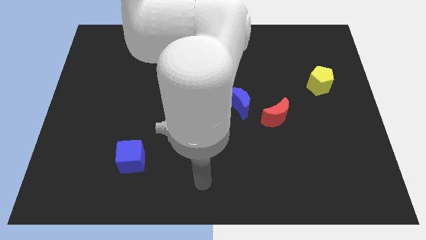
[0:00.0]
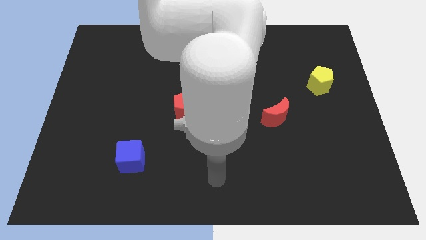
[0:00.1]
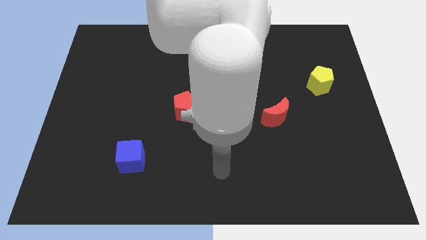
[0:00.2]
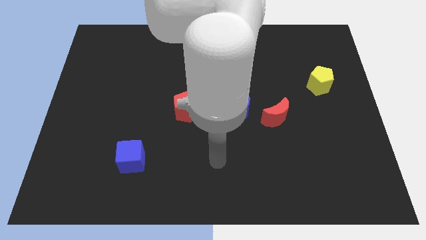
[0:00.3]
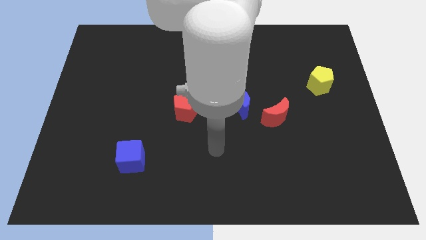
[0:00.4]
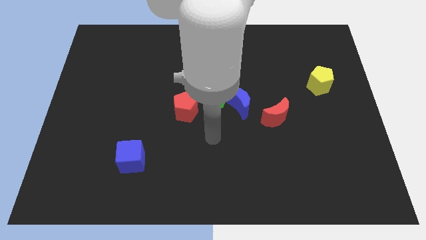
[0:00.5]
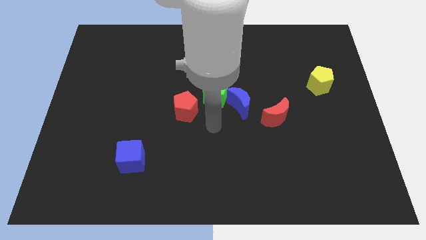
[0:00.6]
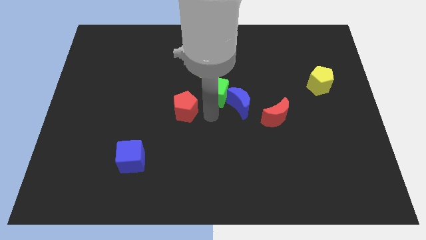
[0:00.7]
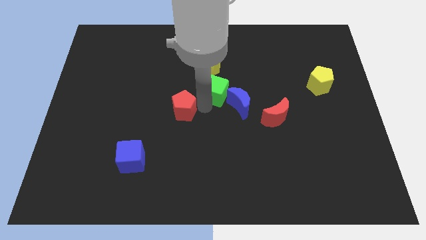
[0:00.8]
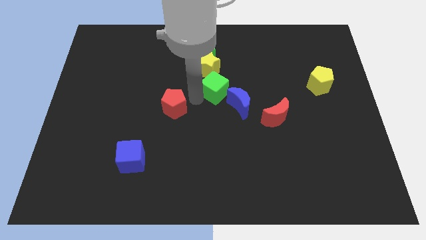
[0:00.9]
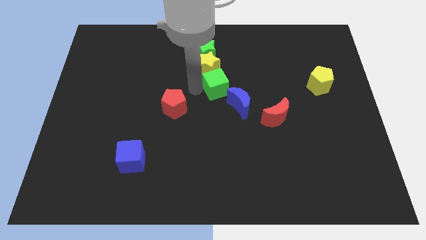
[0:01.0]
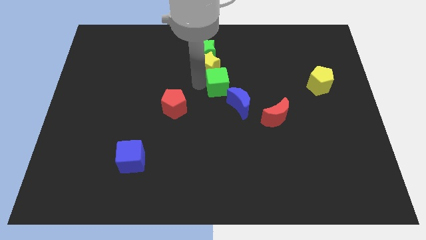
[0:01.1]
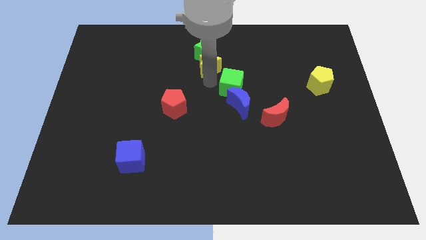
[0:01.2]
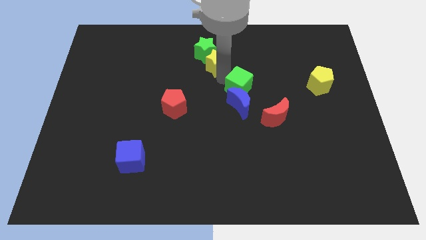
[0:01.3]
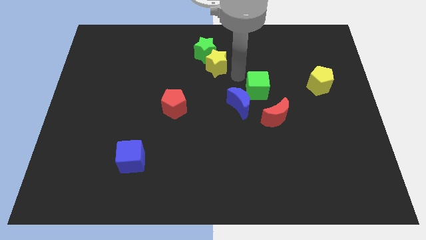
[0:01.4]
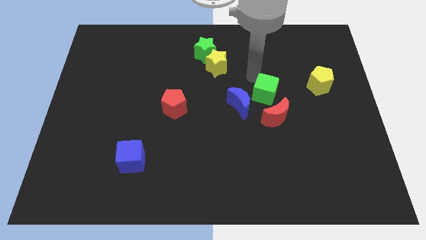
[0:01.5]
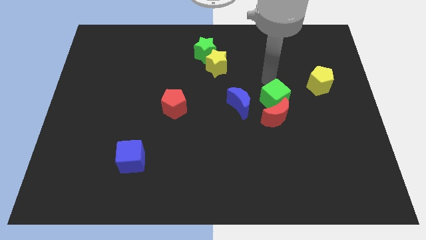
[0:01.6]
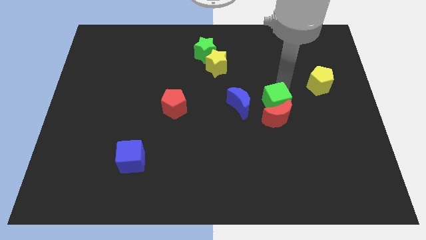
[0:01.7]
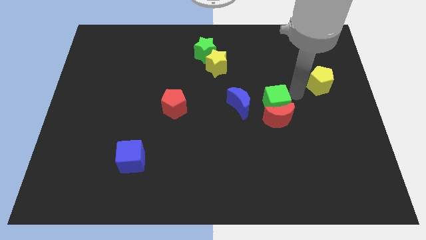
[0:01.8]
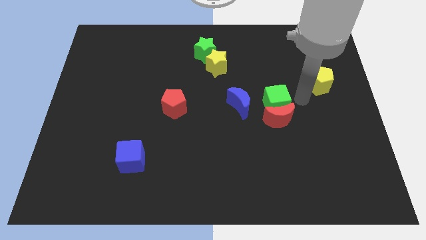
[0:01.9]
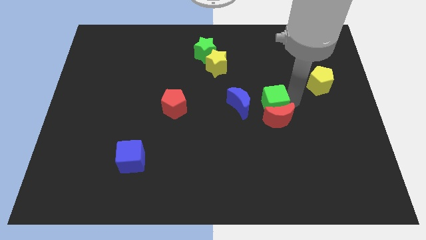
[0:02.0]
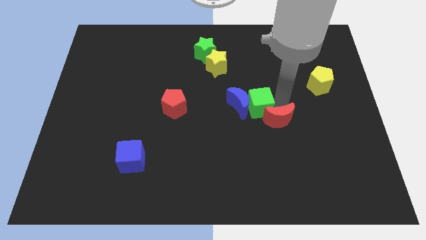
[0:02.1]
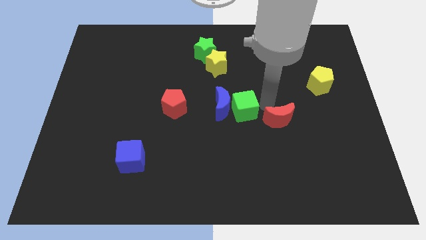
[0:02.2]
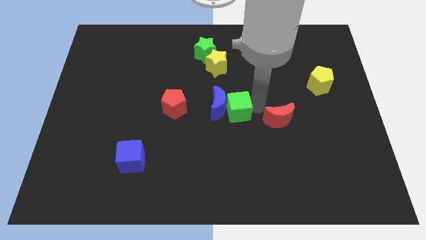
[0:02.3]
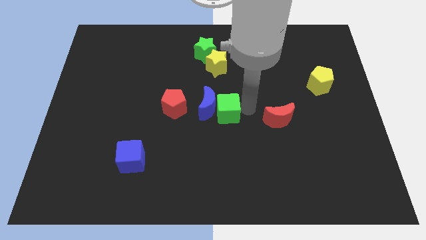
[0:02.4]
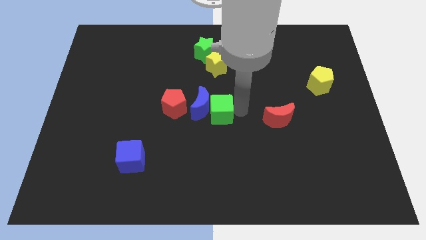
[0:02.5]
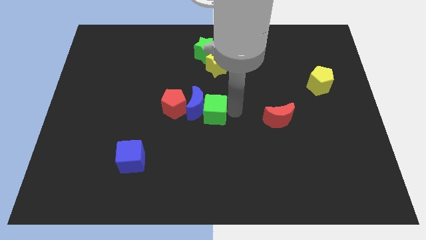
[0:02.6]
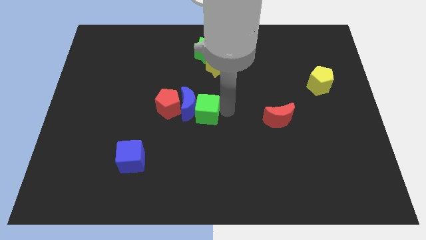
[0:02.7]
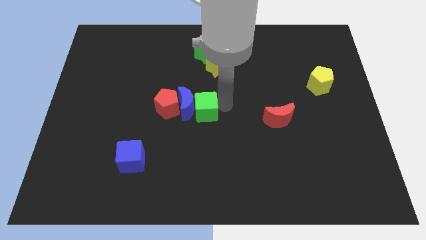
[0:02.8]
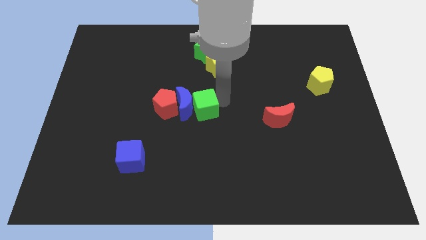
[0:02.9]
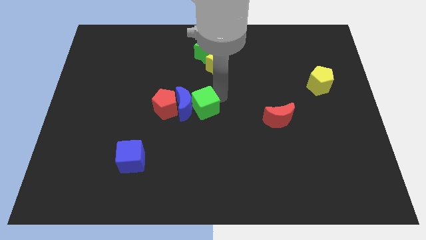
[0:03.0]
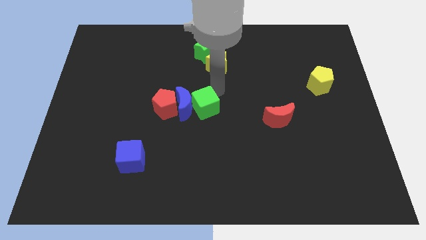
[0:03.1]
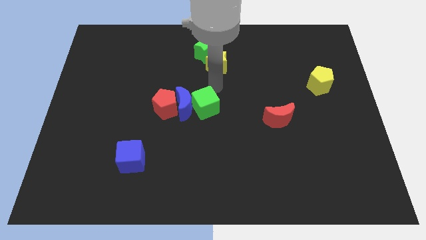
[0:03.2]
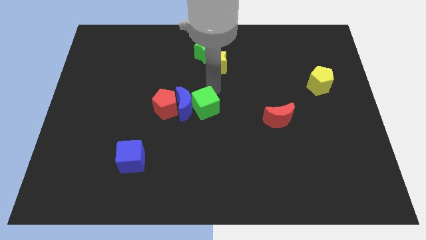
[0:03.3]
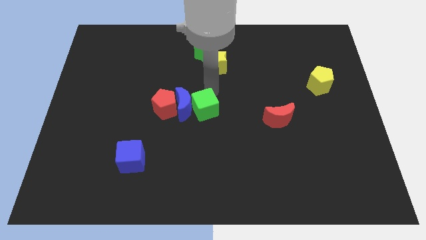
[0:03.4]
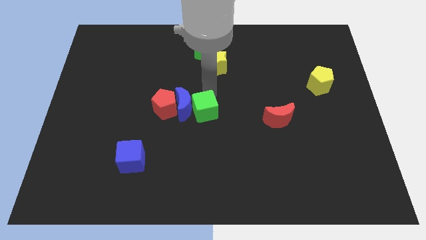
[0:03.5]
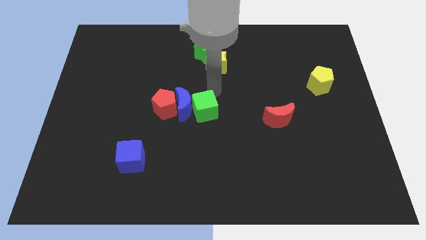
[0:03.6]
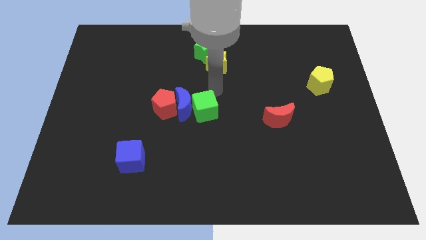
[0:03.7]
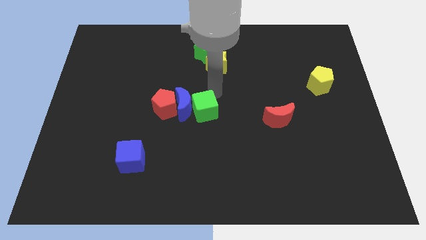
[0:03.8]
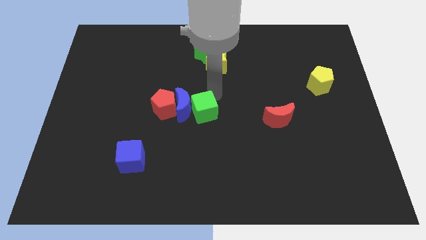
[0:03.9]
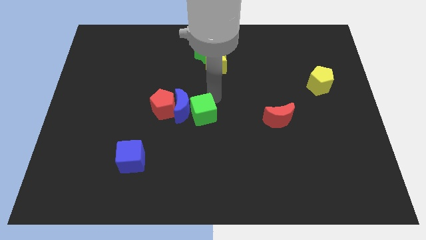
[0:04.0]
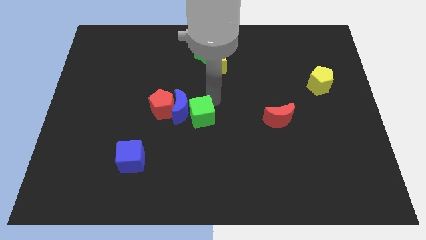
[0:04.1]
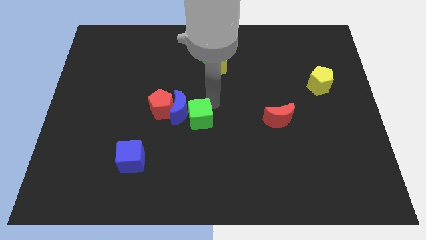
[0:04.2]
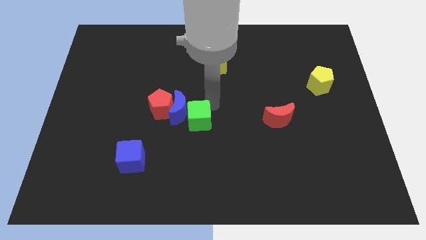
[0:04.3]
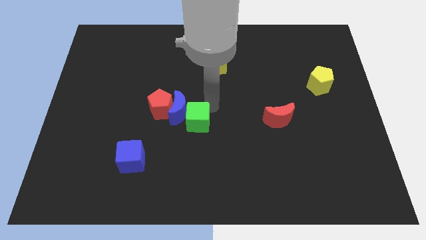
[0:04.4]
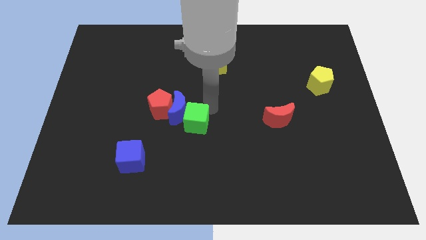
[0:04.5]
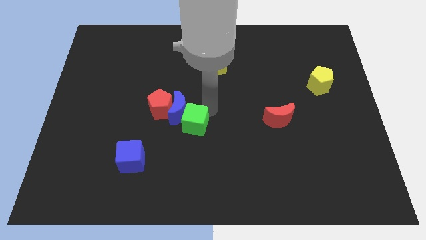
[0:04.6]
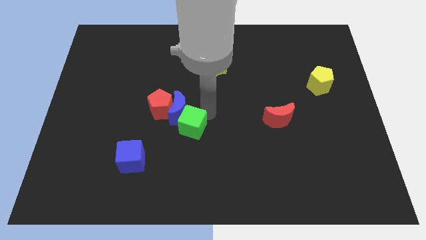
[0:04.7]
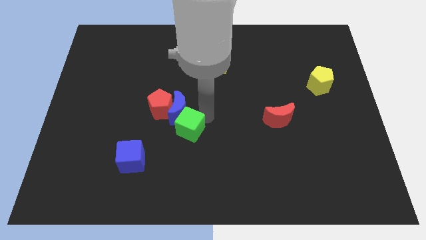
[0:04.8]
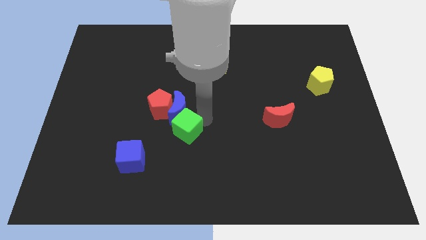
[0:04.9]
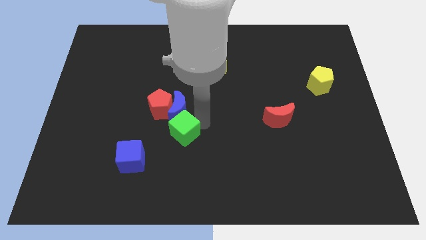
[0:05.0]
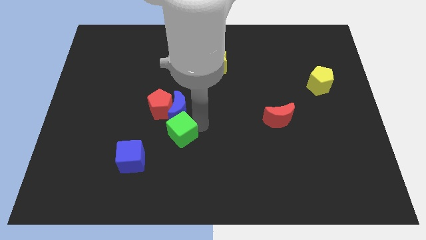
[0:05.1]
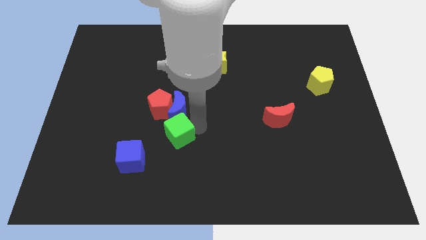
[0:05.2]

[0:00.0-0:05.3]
slide the green cube to the bottom side of the red pentagon

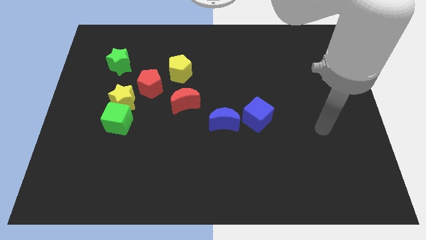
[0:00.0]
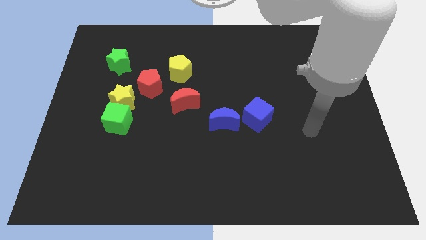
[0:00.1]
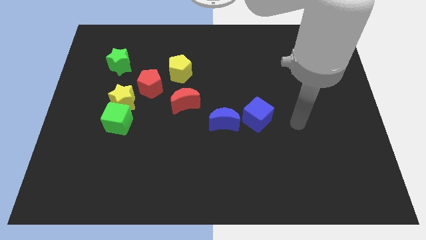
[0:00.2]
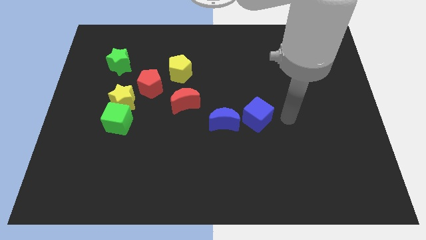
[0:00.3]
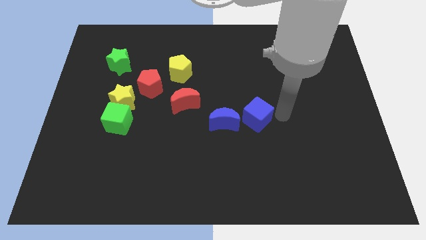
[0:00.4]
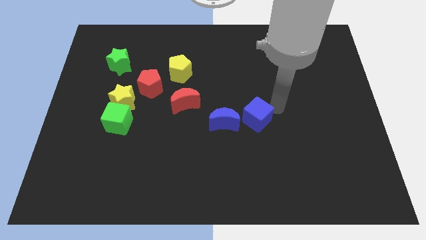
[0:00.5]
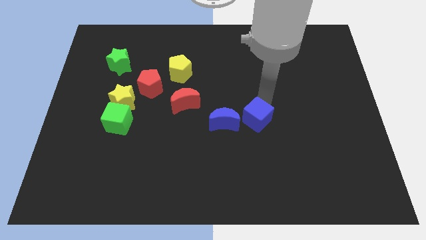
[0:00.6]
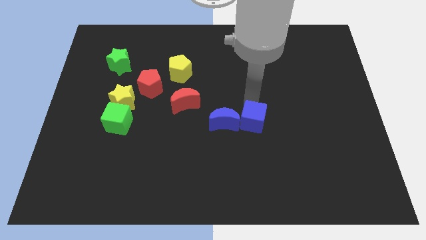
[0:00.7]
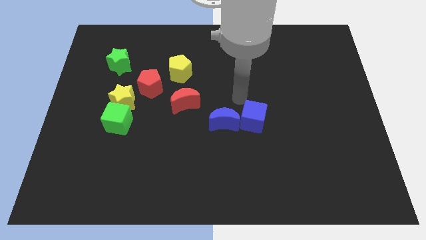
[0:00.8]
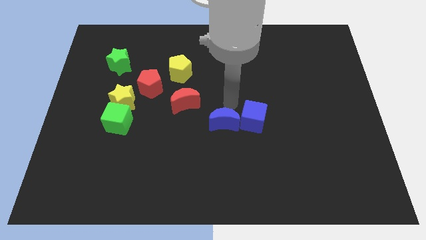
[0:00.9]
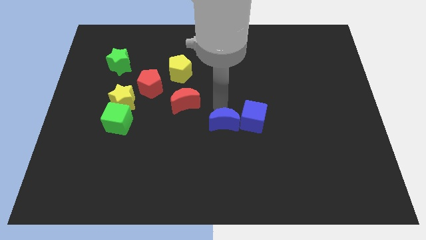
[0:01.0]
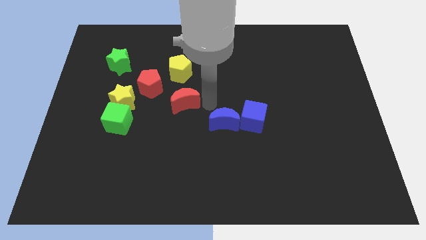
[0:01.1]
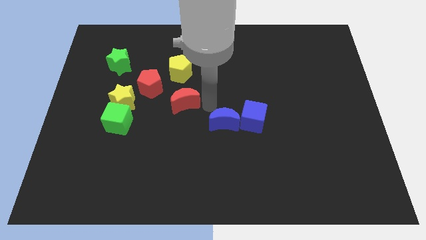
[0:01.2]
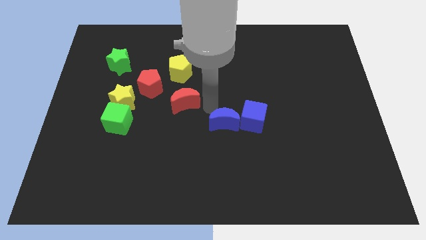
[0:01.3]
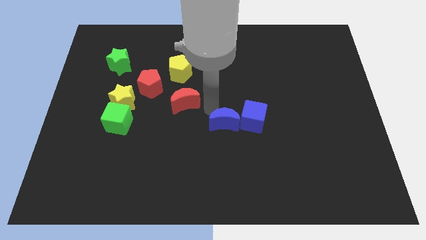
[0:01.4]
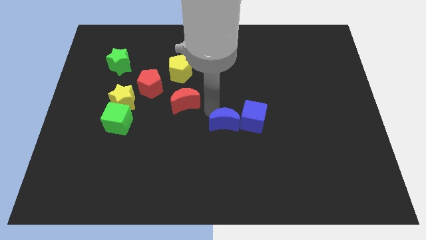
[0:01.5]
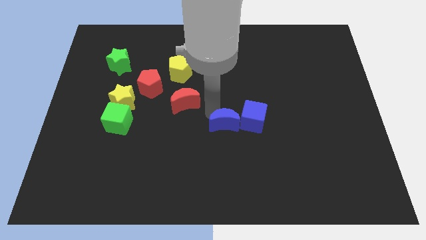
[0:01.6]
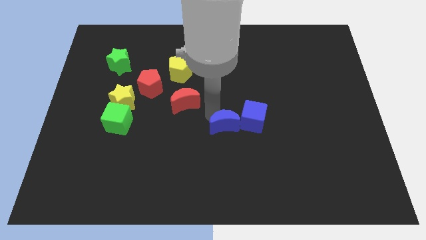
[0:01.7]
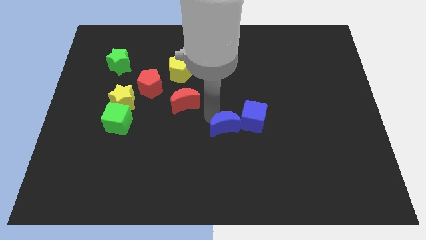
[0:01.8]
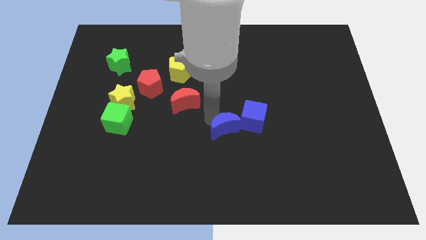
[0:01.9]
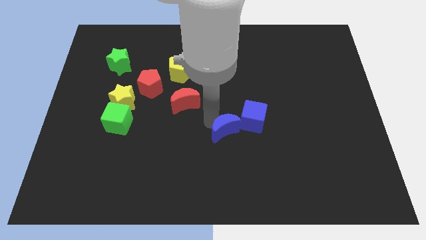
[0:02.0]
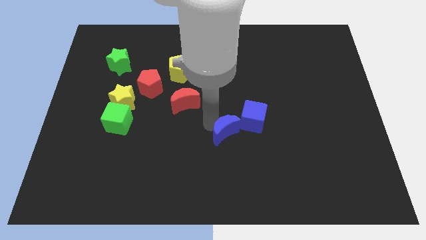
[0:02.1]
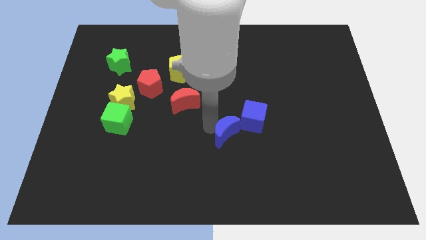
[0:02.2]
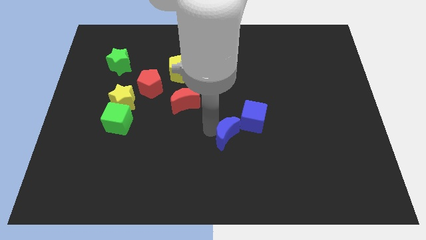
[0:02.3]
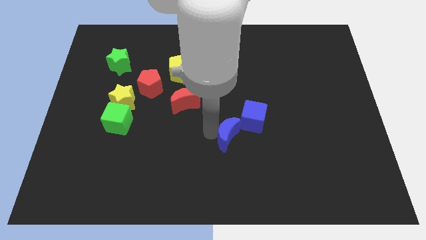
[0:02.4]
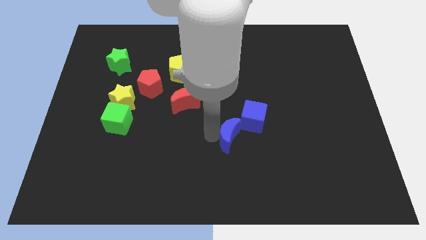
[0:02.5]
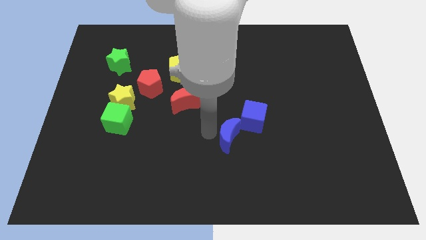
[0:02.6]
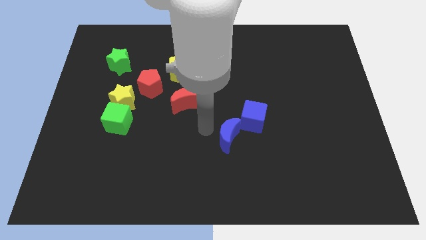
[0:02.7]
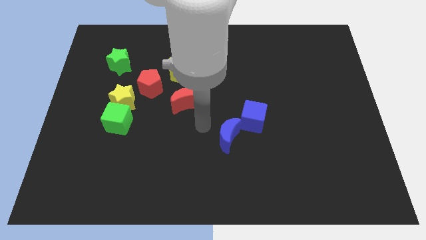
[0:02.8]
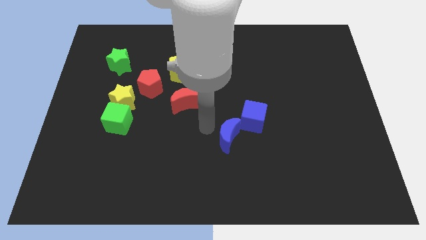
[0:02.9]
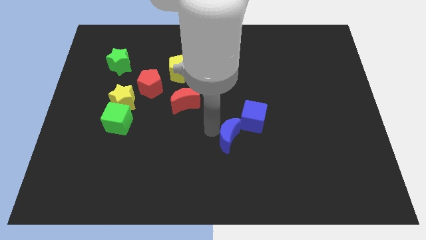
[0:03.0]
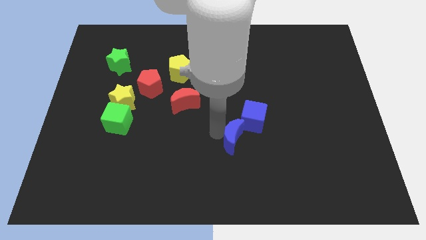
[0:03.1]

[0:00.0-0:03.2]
push the blue moon below the blue cube
